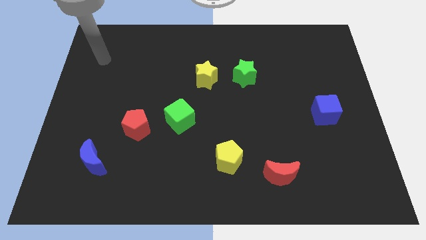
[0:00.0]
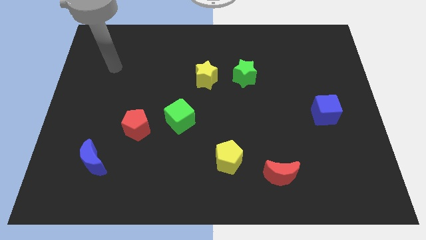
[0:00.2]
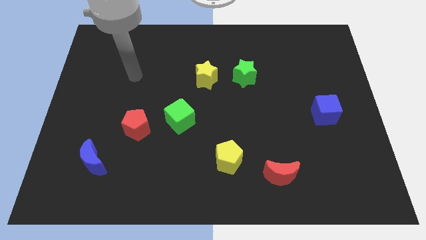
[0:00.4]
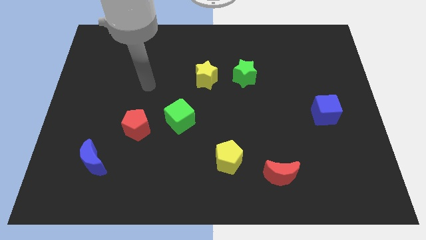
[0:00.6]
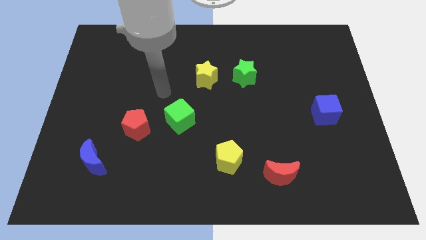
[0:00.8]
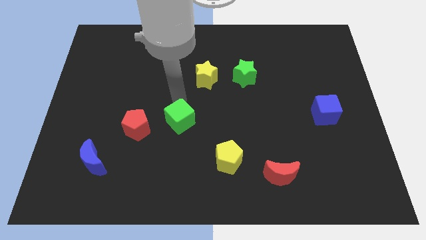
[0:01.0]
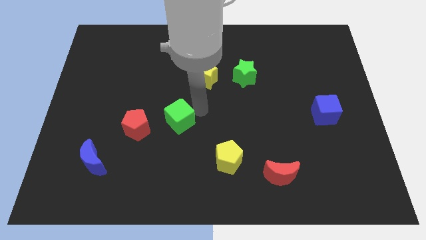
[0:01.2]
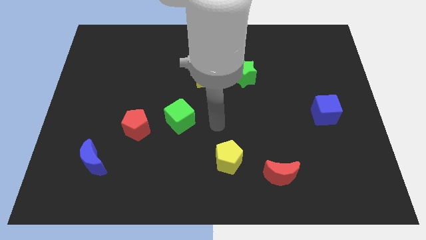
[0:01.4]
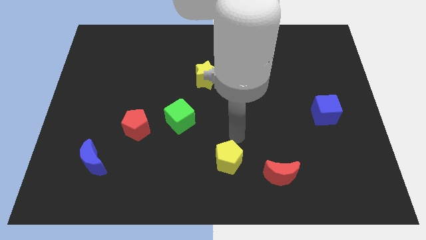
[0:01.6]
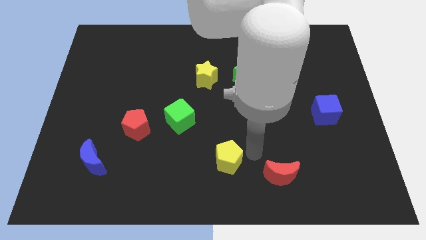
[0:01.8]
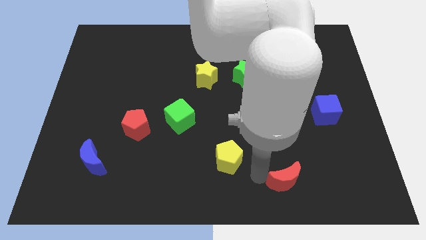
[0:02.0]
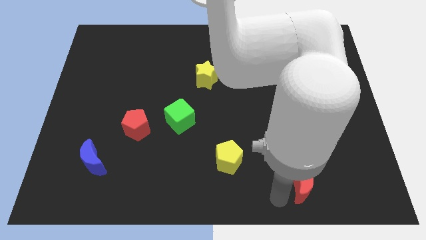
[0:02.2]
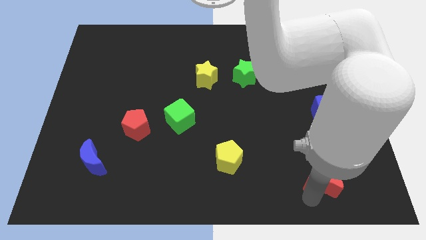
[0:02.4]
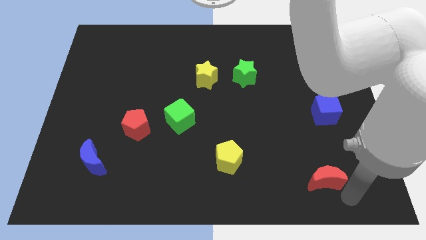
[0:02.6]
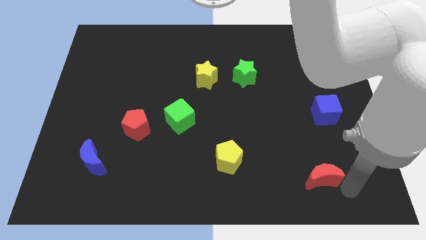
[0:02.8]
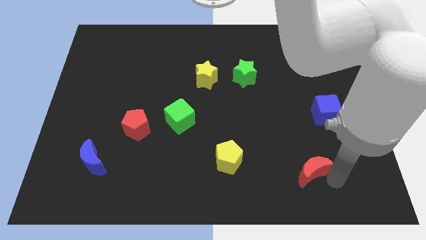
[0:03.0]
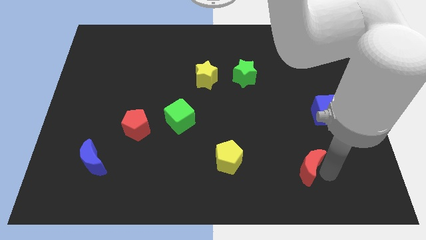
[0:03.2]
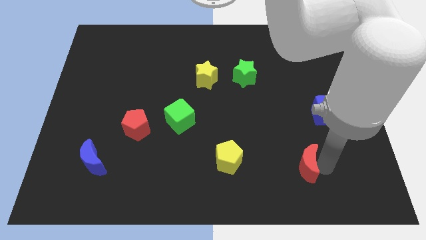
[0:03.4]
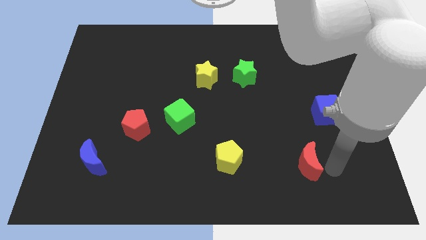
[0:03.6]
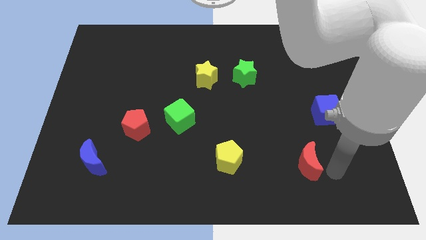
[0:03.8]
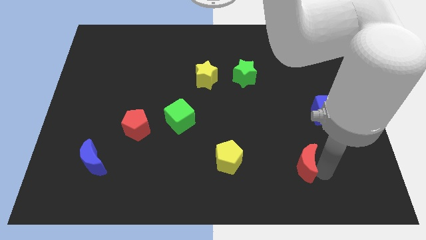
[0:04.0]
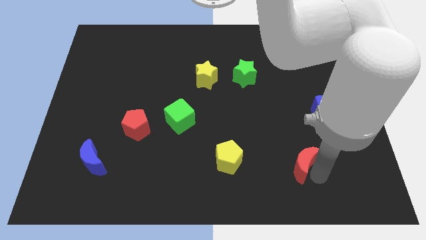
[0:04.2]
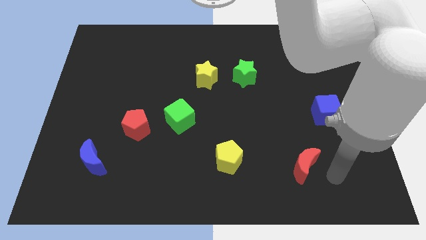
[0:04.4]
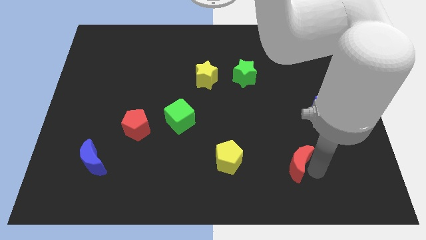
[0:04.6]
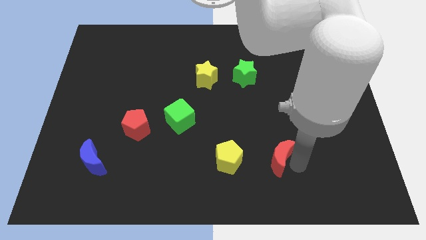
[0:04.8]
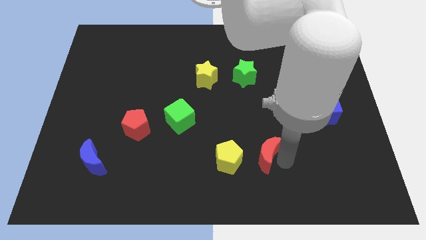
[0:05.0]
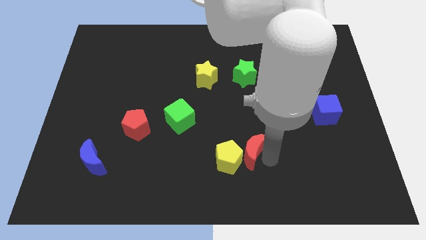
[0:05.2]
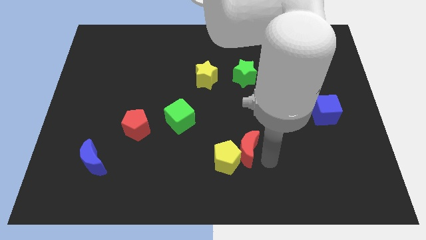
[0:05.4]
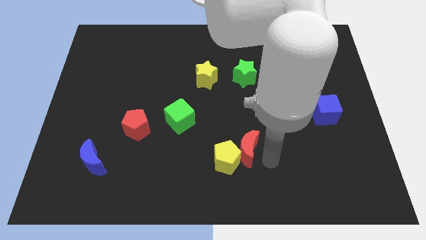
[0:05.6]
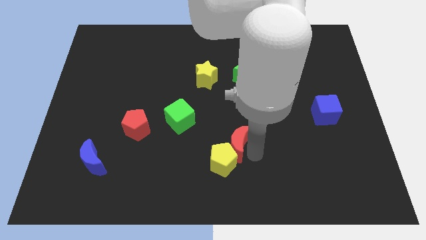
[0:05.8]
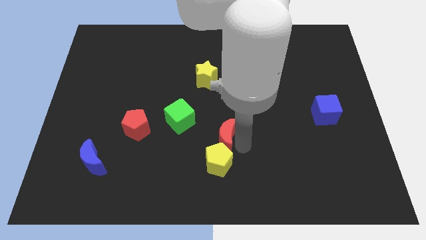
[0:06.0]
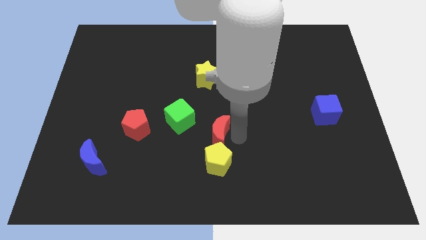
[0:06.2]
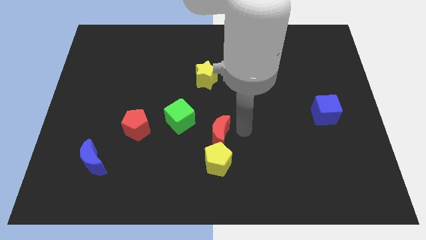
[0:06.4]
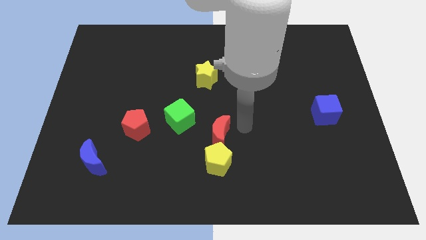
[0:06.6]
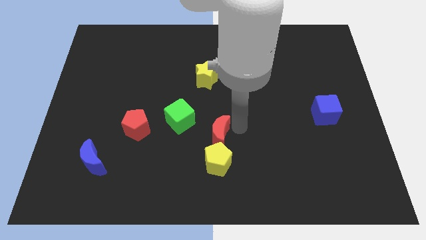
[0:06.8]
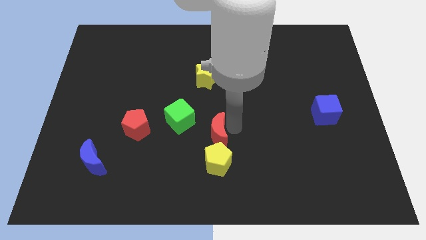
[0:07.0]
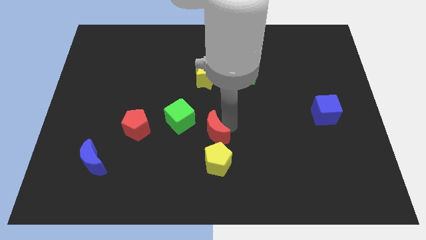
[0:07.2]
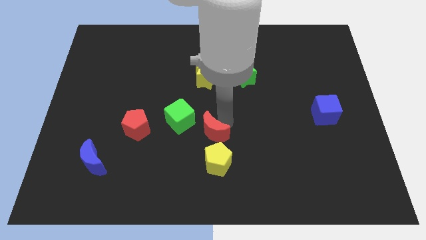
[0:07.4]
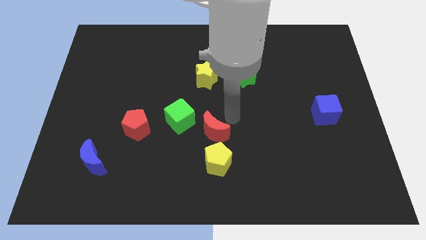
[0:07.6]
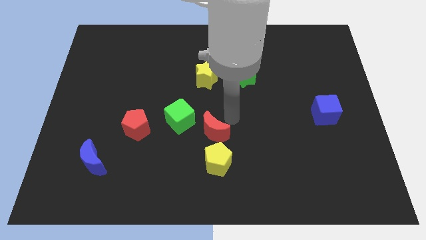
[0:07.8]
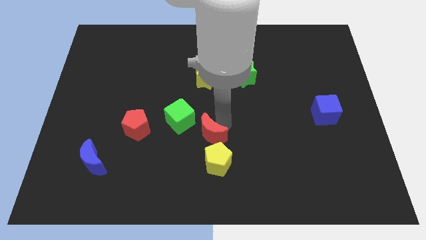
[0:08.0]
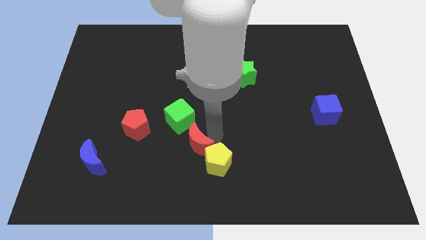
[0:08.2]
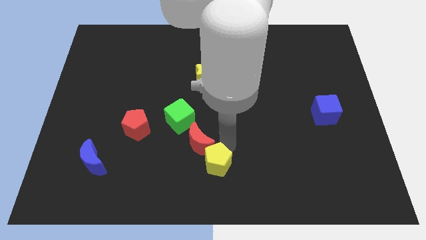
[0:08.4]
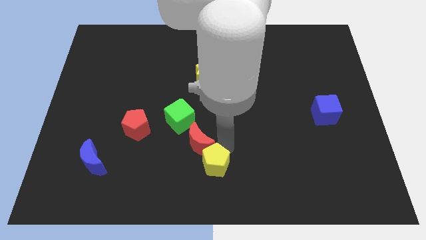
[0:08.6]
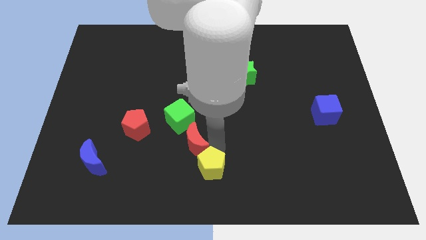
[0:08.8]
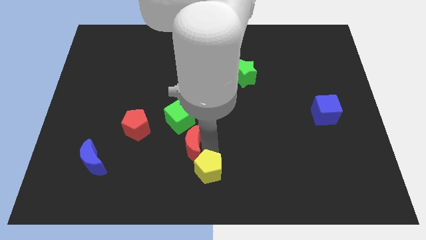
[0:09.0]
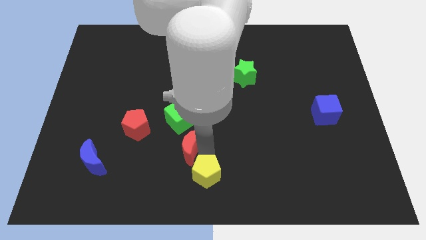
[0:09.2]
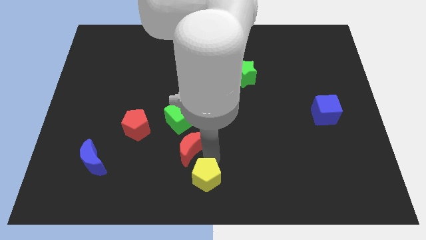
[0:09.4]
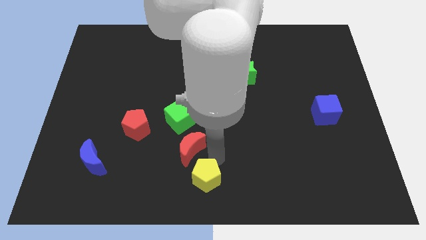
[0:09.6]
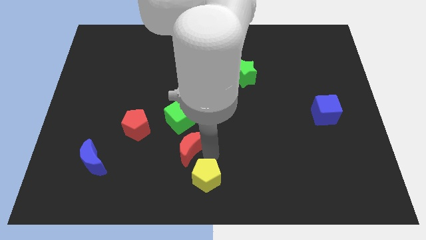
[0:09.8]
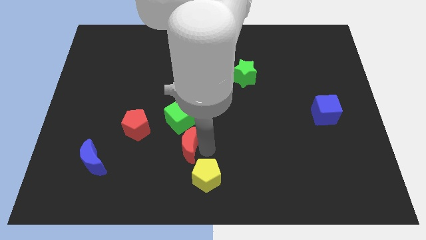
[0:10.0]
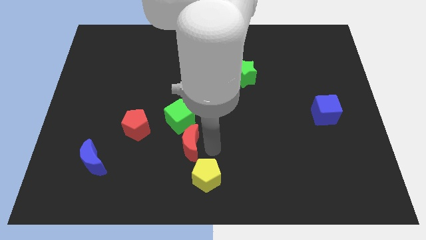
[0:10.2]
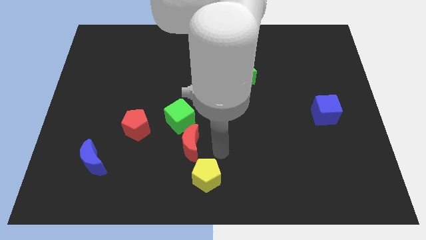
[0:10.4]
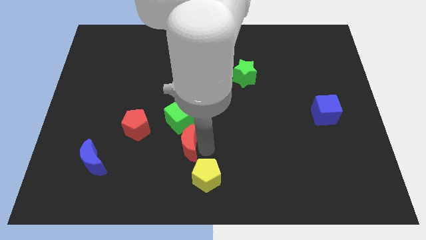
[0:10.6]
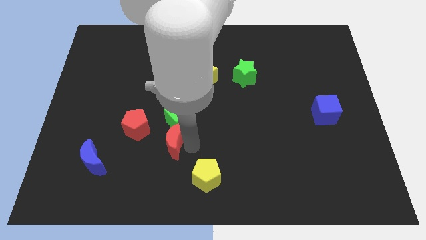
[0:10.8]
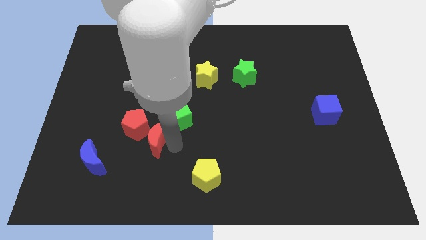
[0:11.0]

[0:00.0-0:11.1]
slide the red moon to the red pentagon

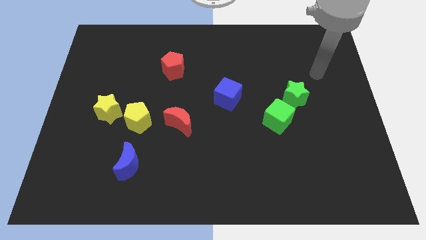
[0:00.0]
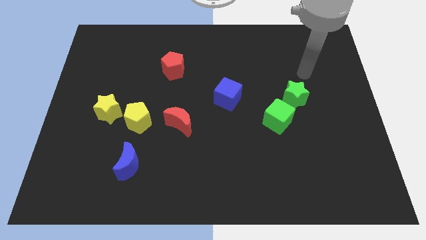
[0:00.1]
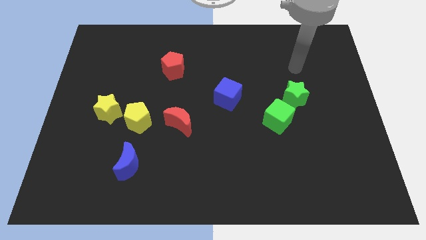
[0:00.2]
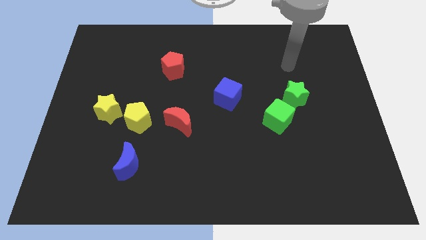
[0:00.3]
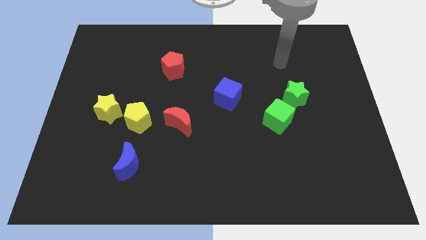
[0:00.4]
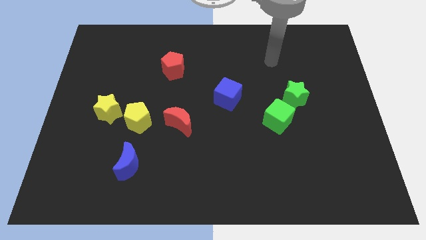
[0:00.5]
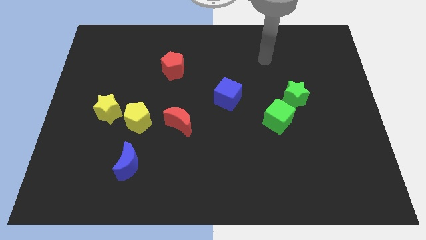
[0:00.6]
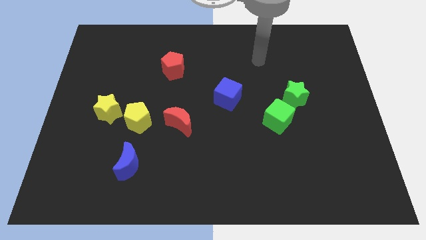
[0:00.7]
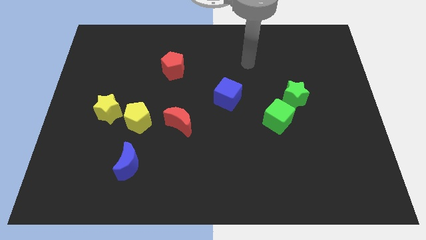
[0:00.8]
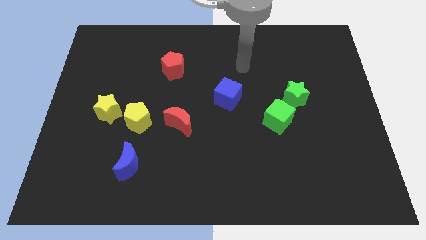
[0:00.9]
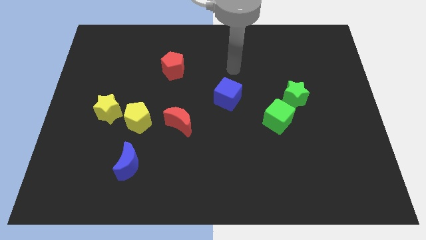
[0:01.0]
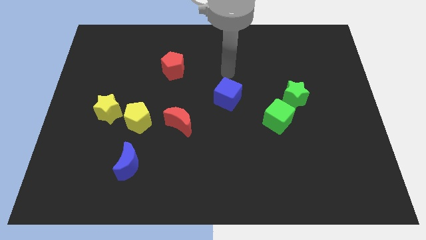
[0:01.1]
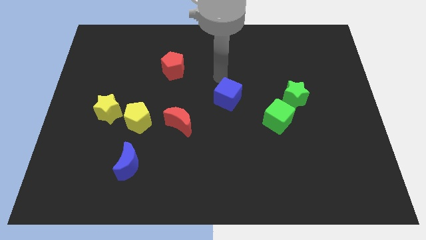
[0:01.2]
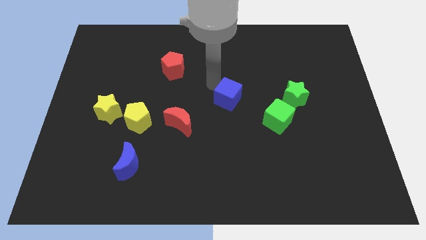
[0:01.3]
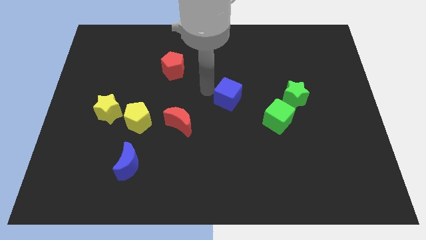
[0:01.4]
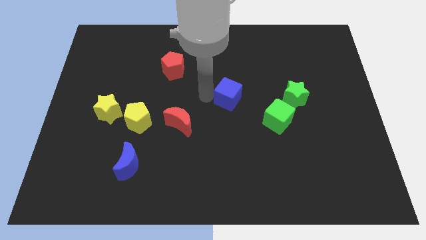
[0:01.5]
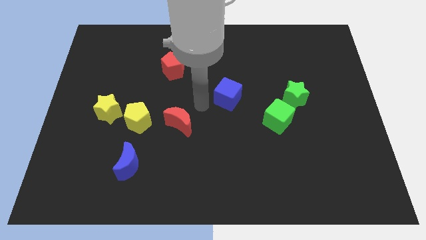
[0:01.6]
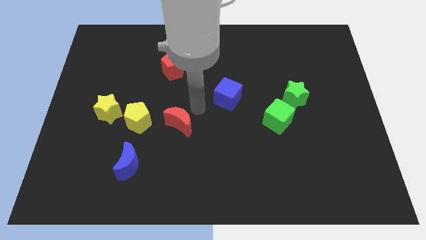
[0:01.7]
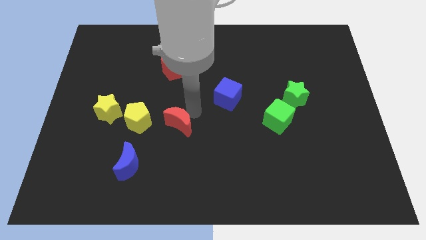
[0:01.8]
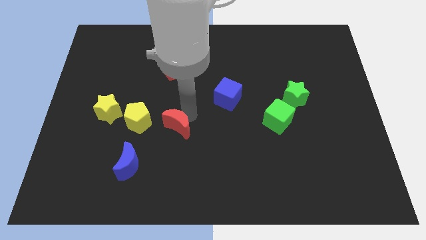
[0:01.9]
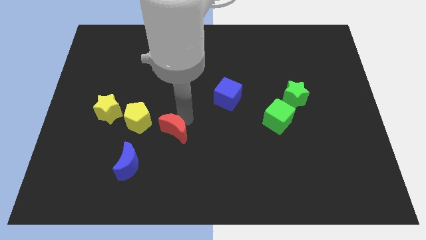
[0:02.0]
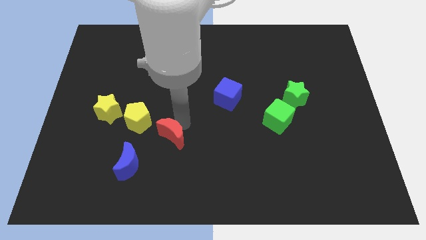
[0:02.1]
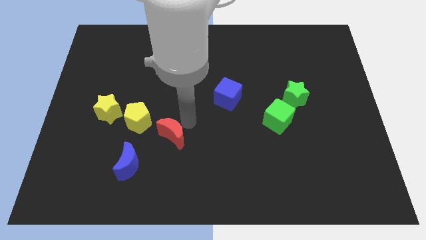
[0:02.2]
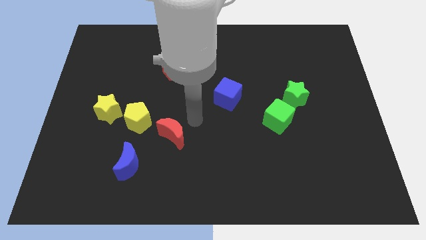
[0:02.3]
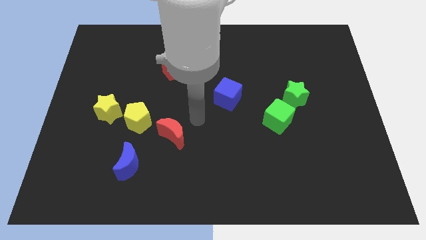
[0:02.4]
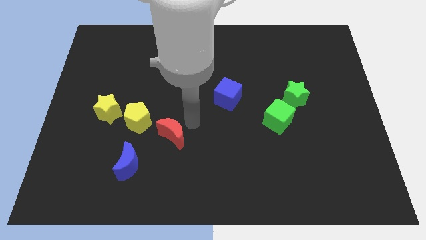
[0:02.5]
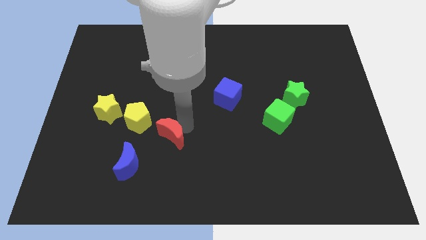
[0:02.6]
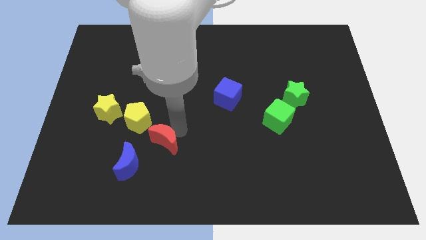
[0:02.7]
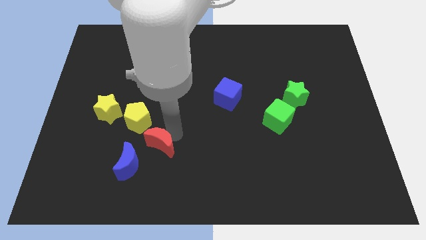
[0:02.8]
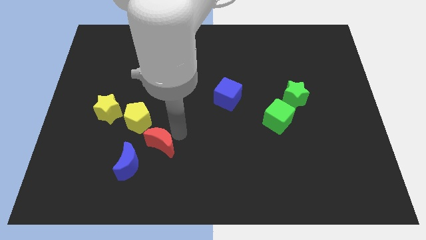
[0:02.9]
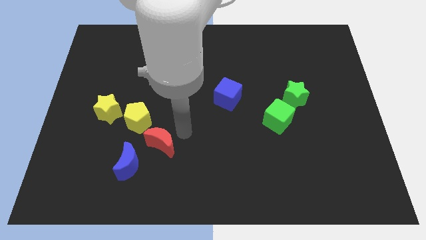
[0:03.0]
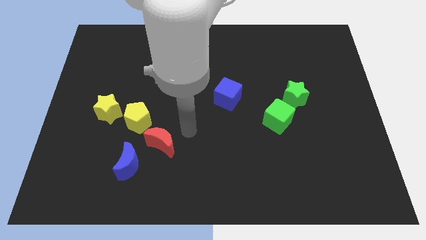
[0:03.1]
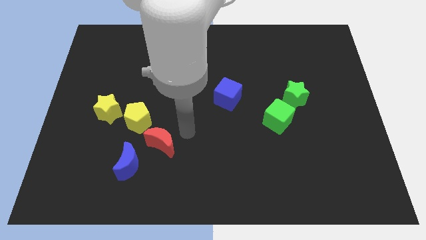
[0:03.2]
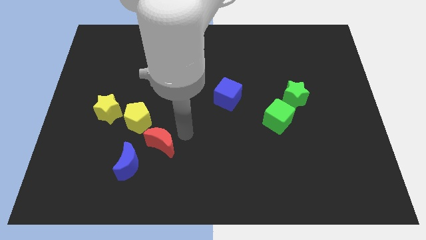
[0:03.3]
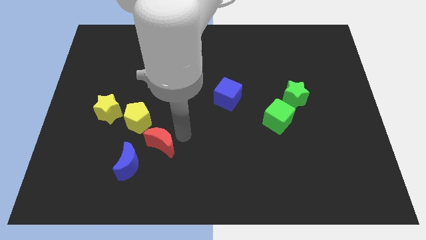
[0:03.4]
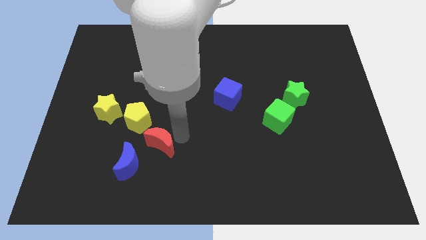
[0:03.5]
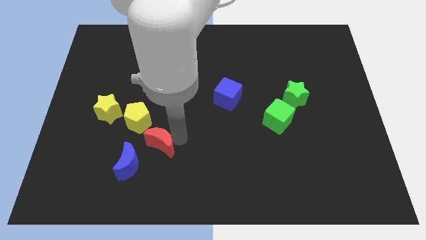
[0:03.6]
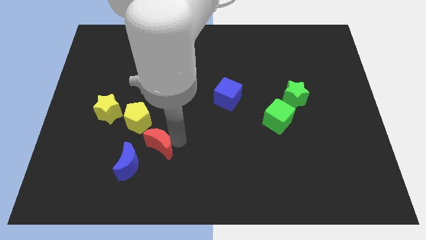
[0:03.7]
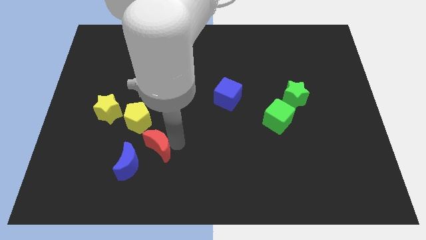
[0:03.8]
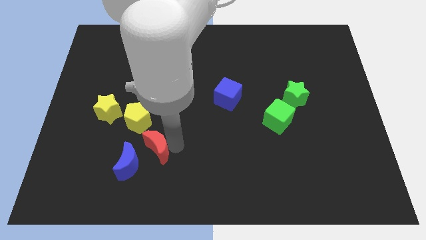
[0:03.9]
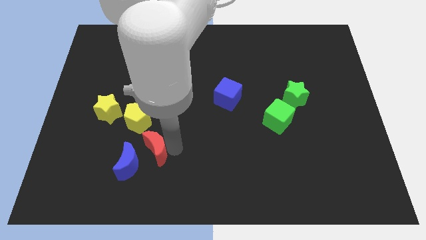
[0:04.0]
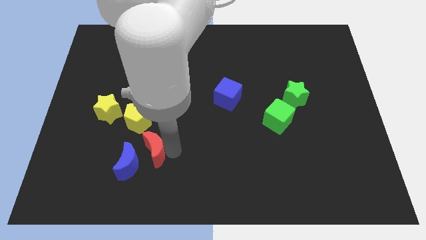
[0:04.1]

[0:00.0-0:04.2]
move the red moon to the blue moon
